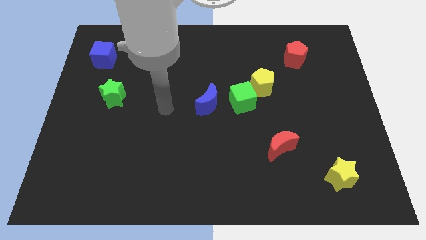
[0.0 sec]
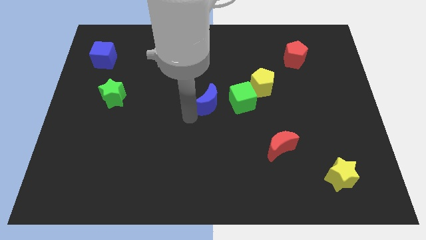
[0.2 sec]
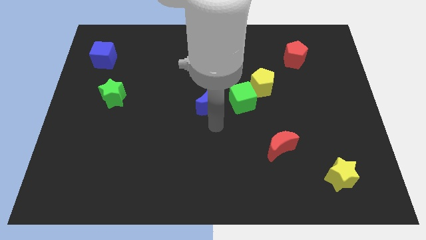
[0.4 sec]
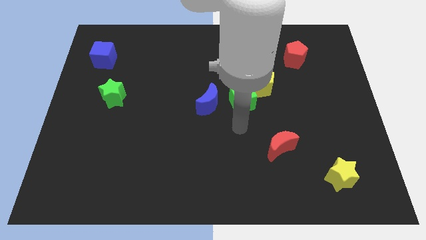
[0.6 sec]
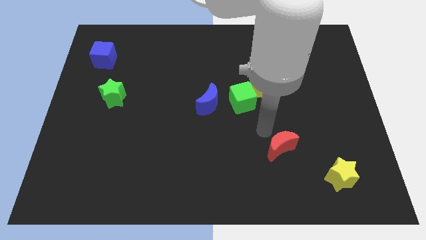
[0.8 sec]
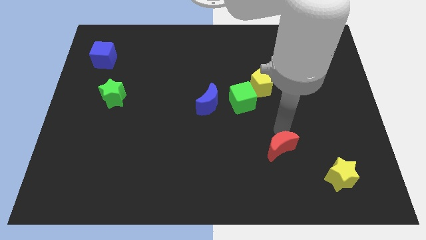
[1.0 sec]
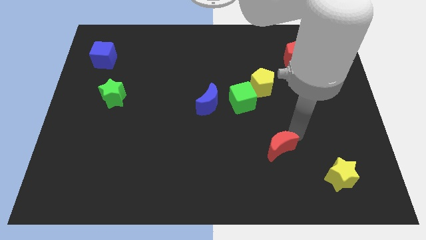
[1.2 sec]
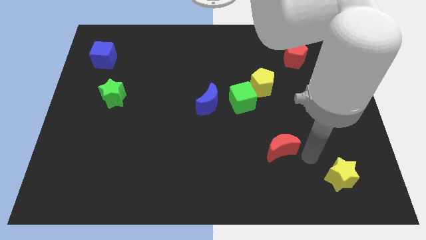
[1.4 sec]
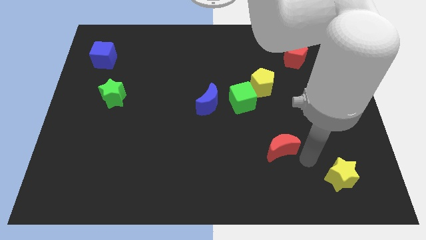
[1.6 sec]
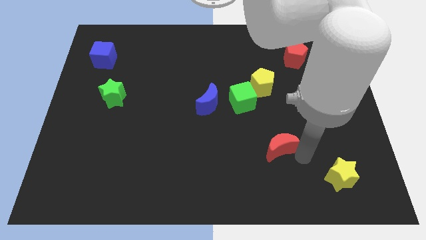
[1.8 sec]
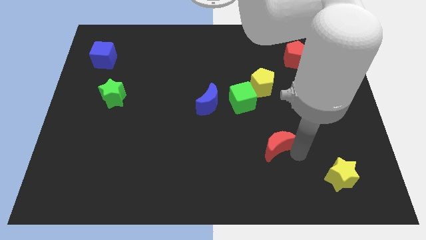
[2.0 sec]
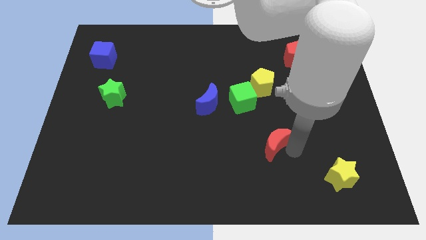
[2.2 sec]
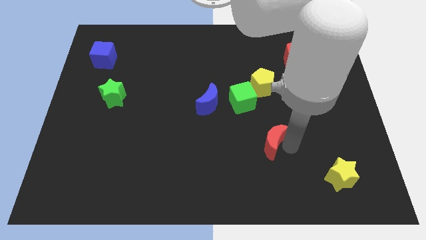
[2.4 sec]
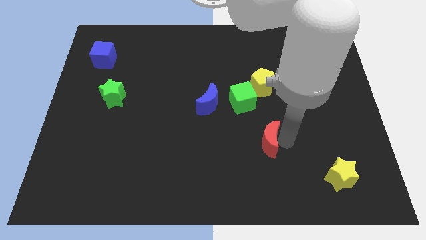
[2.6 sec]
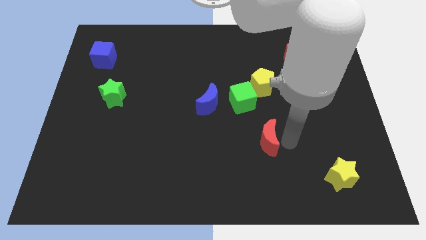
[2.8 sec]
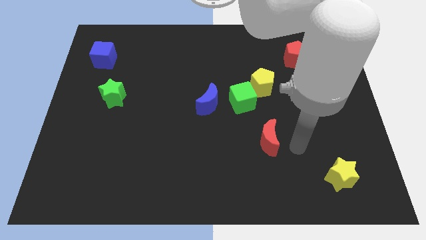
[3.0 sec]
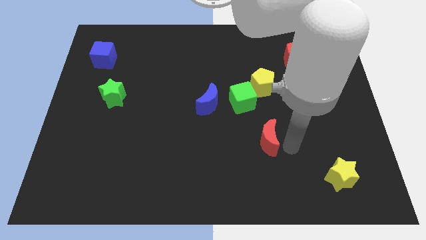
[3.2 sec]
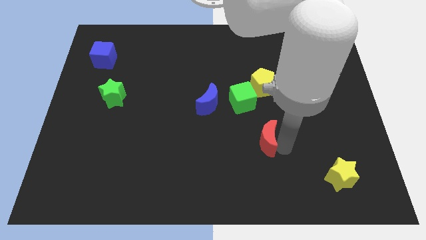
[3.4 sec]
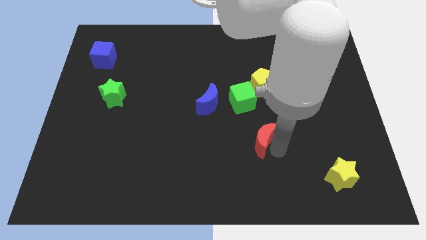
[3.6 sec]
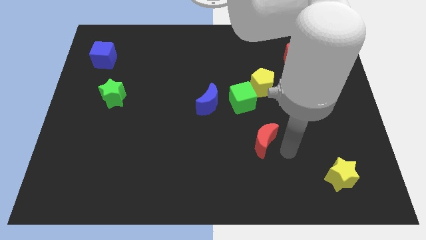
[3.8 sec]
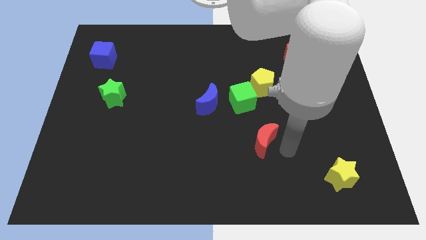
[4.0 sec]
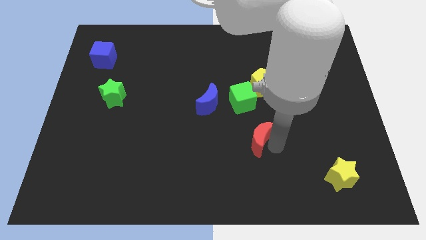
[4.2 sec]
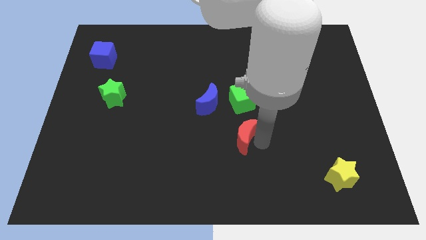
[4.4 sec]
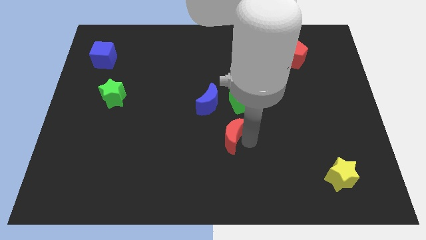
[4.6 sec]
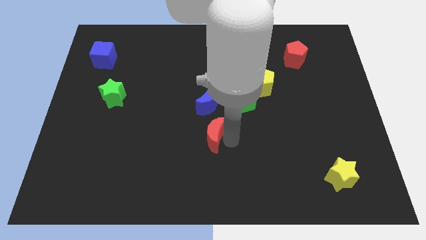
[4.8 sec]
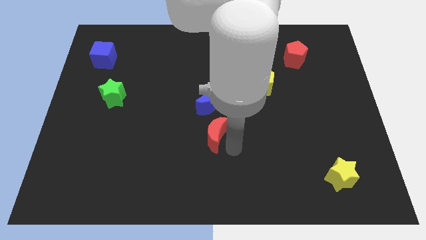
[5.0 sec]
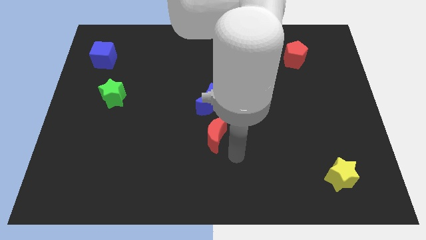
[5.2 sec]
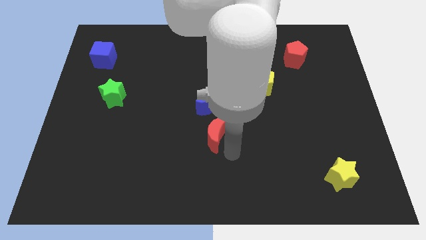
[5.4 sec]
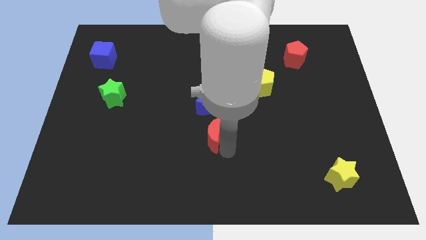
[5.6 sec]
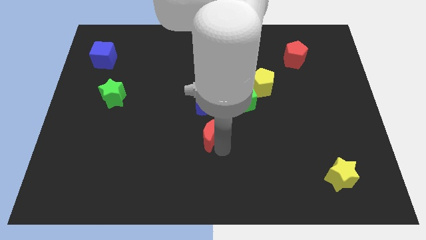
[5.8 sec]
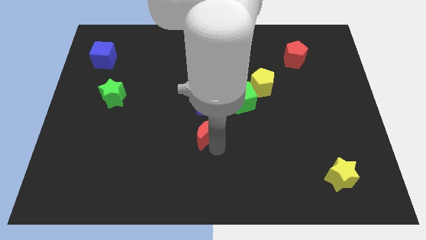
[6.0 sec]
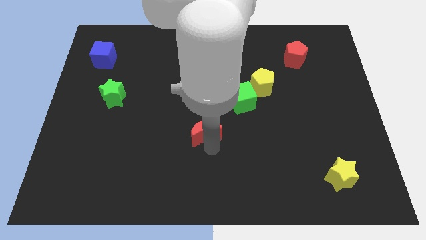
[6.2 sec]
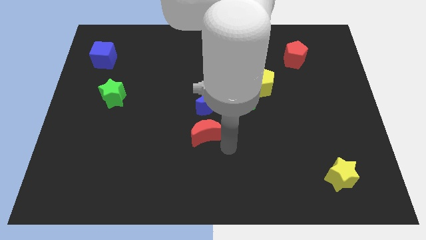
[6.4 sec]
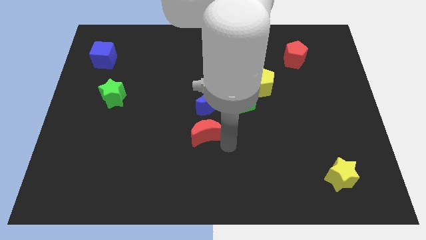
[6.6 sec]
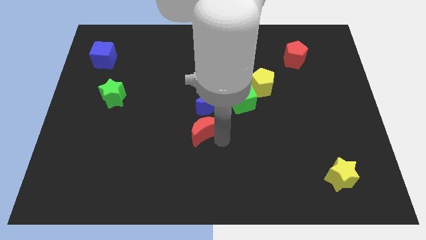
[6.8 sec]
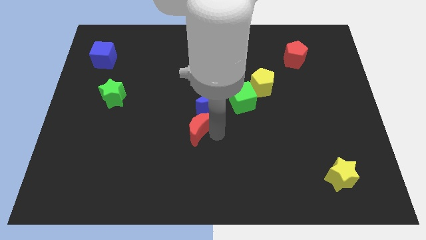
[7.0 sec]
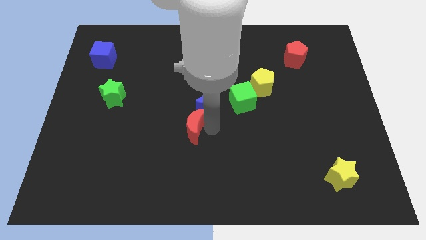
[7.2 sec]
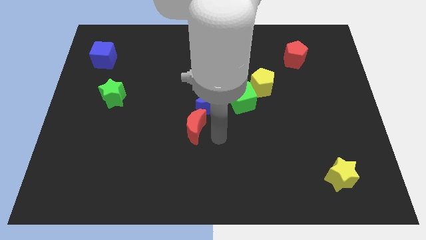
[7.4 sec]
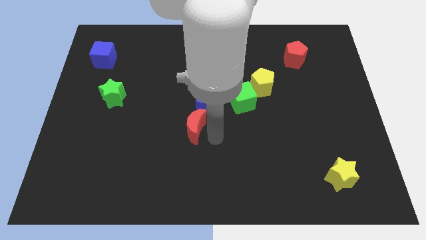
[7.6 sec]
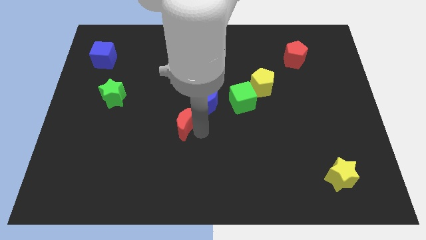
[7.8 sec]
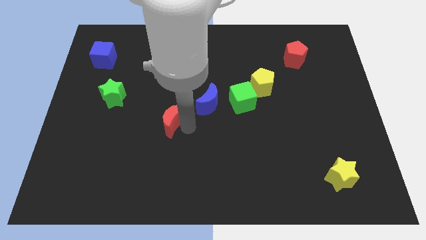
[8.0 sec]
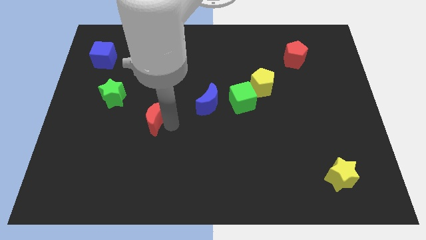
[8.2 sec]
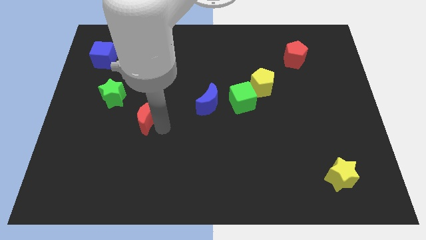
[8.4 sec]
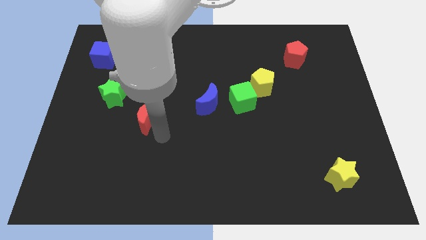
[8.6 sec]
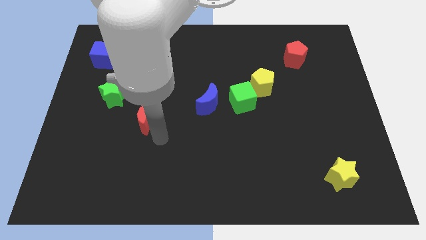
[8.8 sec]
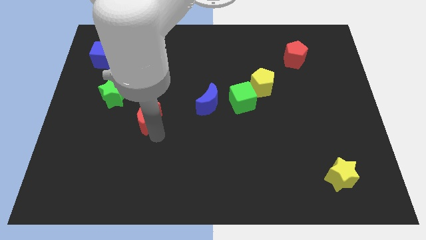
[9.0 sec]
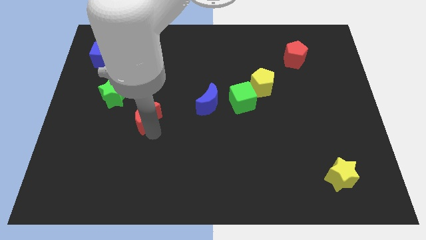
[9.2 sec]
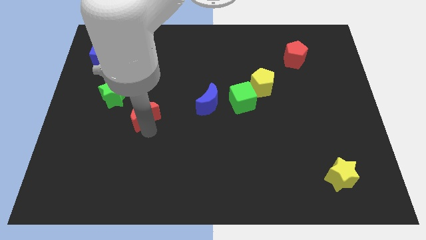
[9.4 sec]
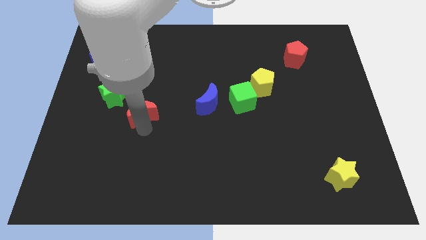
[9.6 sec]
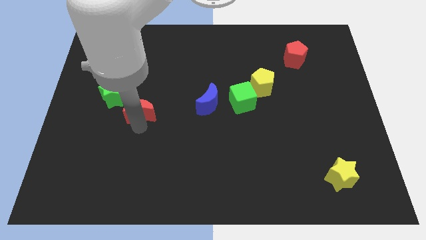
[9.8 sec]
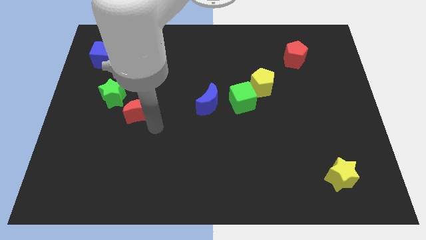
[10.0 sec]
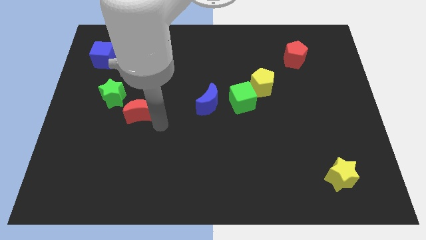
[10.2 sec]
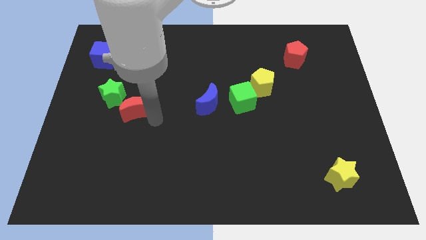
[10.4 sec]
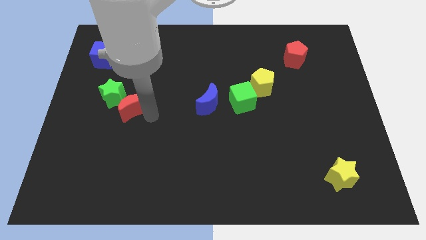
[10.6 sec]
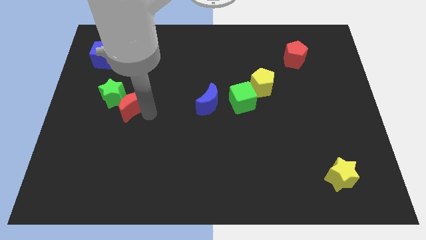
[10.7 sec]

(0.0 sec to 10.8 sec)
push the red moon close to the green star

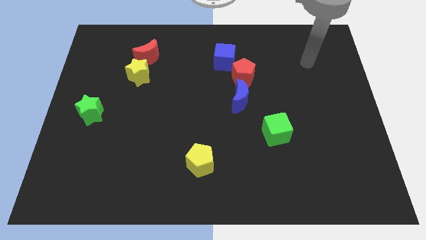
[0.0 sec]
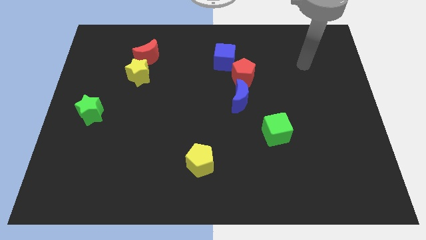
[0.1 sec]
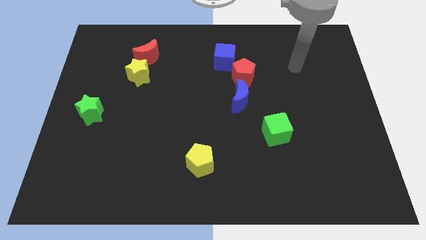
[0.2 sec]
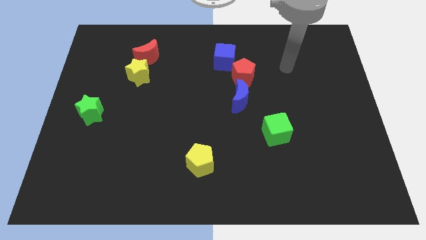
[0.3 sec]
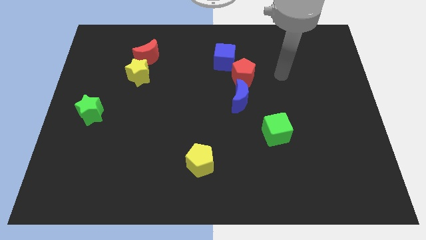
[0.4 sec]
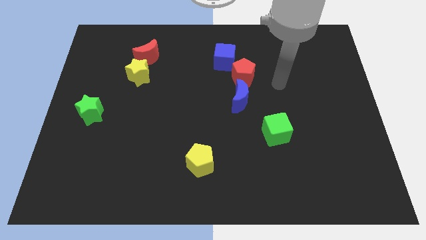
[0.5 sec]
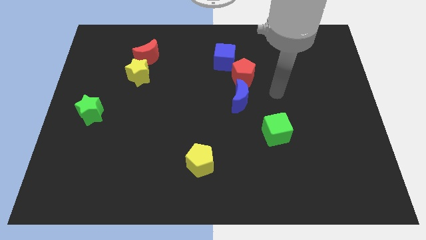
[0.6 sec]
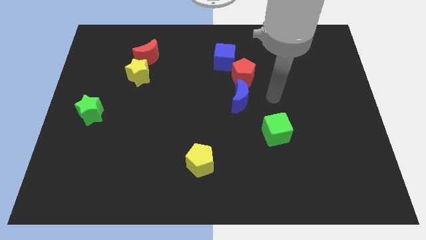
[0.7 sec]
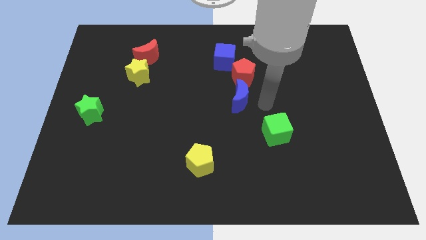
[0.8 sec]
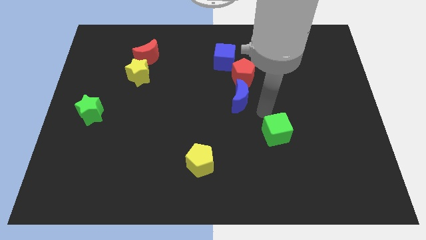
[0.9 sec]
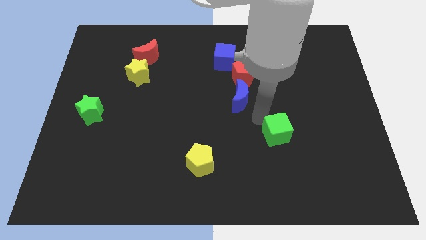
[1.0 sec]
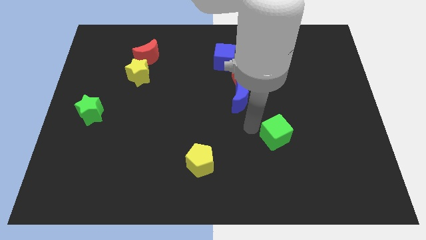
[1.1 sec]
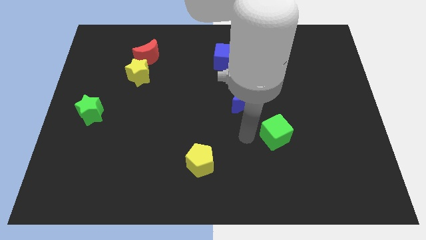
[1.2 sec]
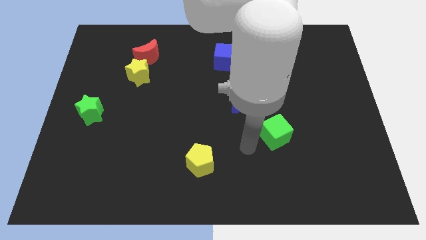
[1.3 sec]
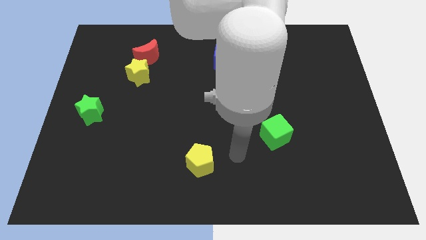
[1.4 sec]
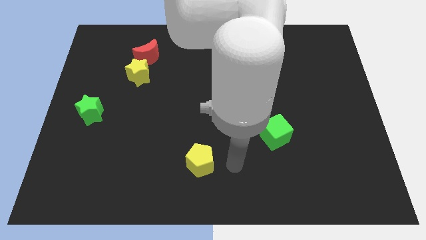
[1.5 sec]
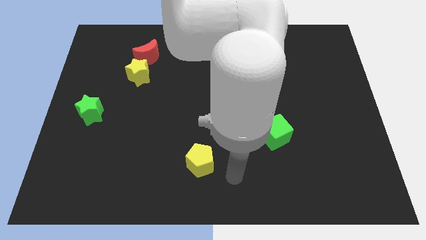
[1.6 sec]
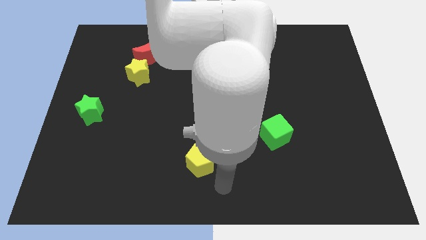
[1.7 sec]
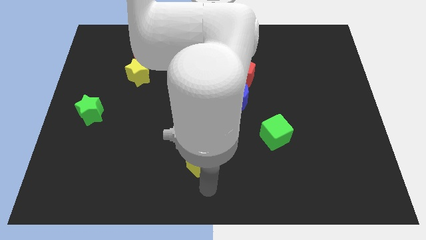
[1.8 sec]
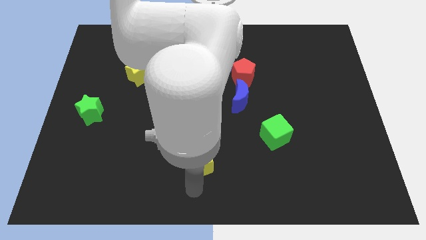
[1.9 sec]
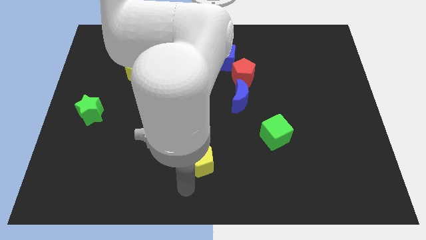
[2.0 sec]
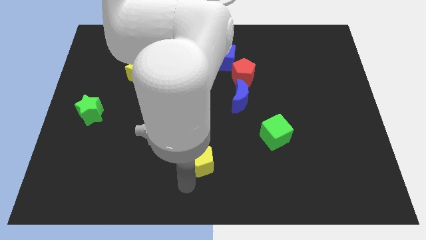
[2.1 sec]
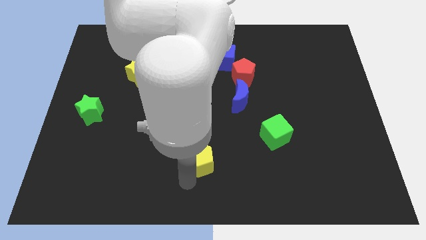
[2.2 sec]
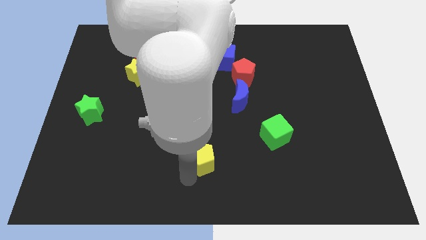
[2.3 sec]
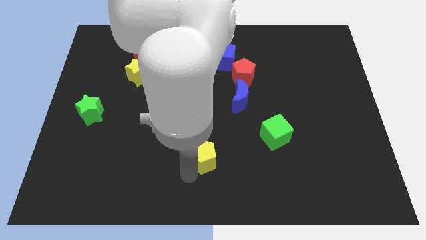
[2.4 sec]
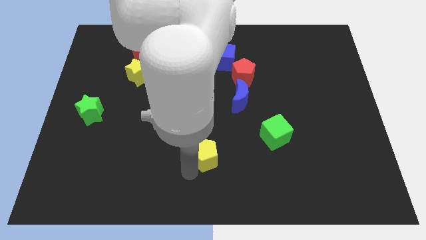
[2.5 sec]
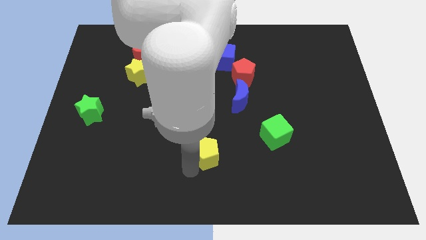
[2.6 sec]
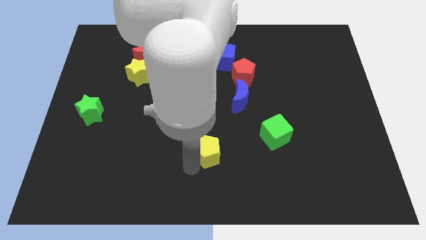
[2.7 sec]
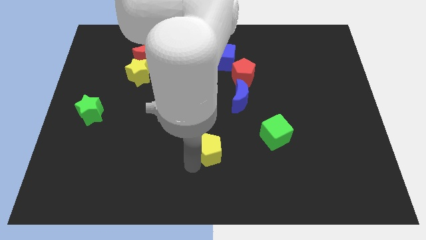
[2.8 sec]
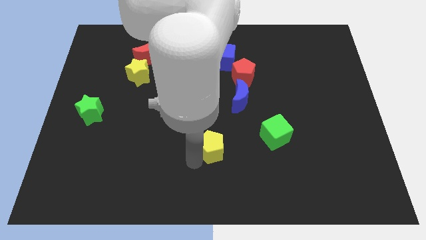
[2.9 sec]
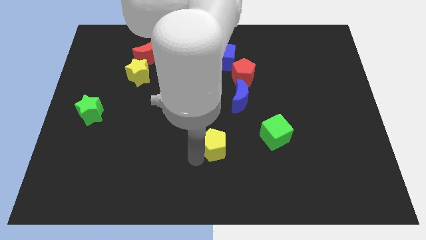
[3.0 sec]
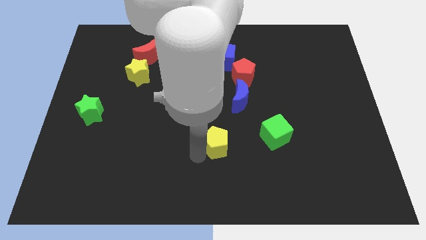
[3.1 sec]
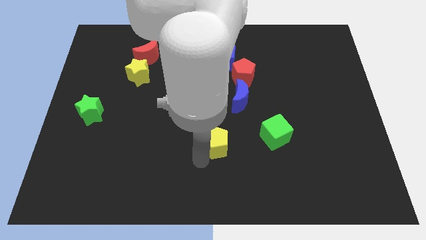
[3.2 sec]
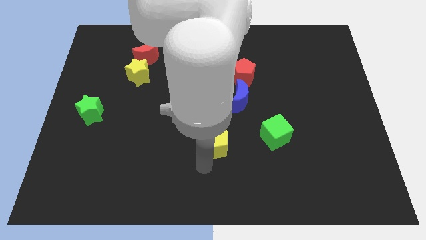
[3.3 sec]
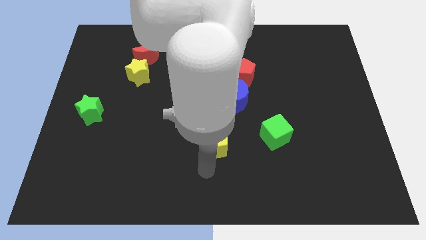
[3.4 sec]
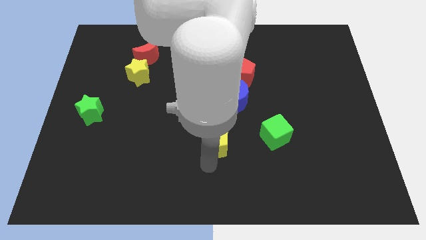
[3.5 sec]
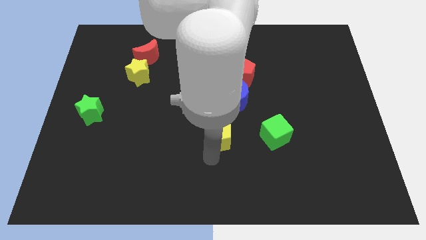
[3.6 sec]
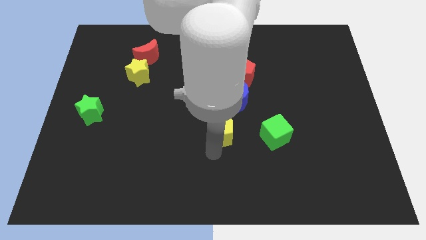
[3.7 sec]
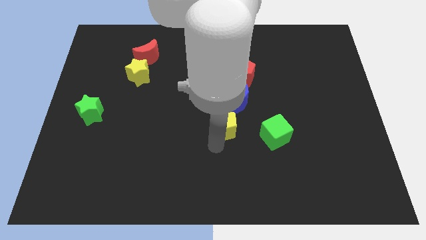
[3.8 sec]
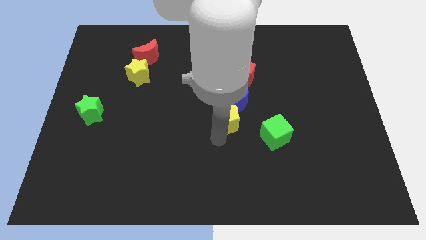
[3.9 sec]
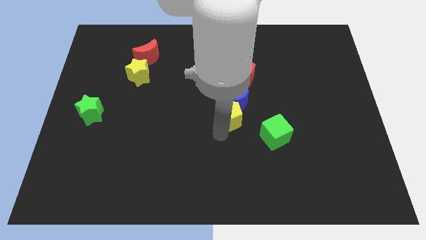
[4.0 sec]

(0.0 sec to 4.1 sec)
slide the yellow pentagon towards the blue moon
